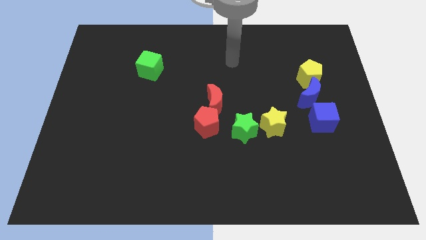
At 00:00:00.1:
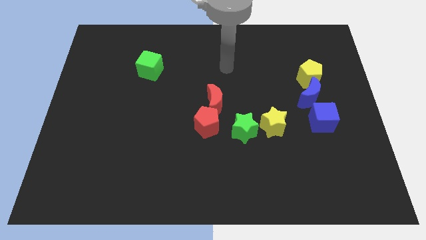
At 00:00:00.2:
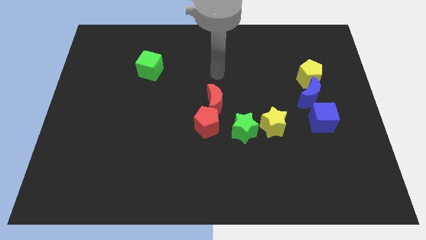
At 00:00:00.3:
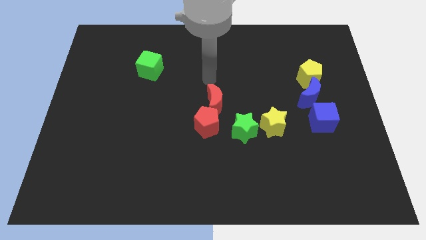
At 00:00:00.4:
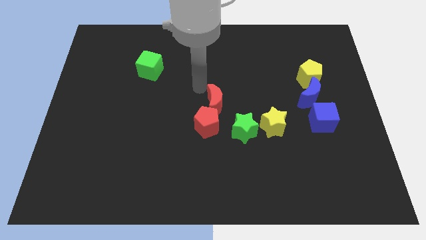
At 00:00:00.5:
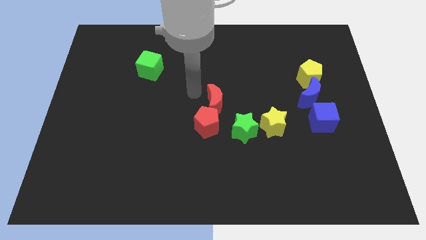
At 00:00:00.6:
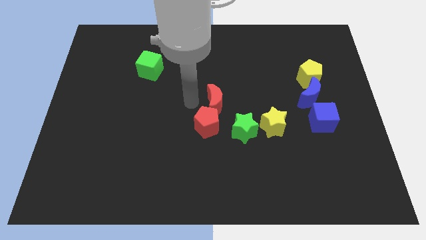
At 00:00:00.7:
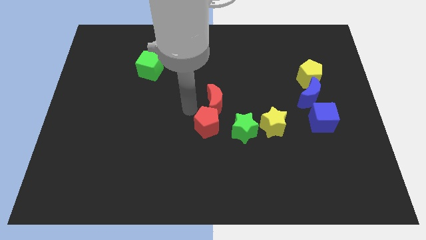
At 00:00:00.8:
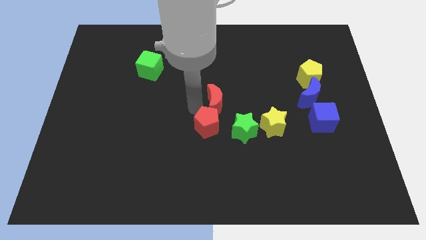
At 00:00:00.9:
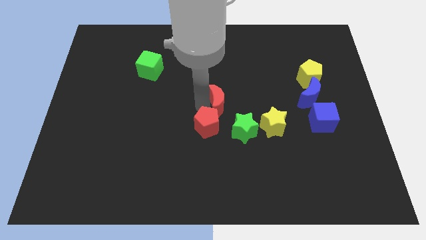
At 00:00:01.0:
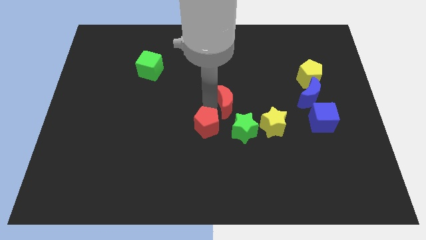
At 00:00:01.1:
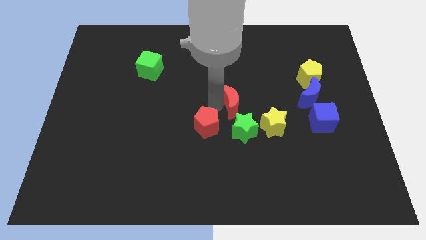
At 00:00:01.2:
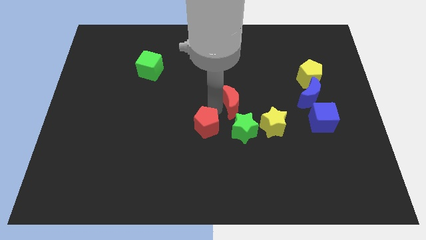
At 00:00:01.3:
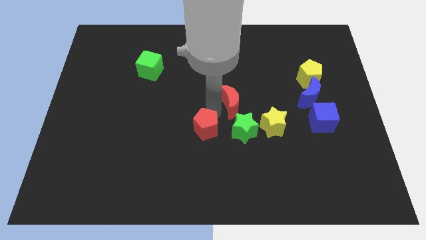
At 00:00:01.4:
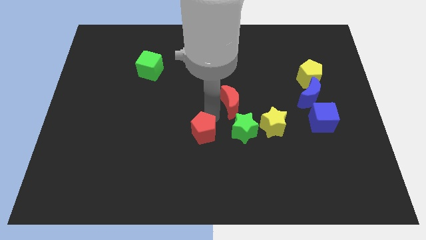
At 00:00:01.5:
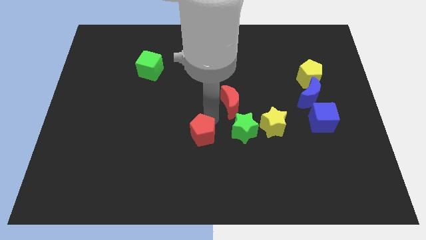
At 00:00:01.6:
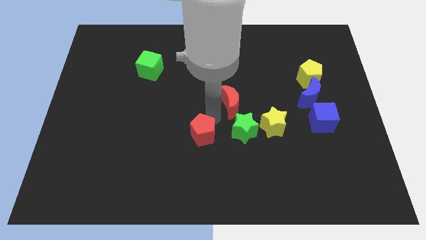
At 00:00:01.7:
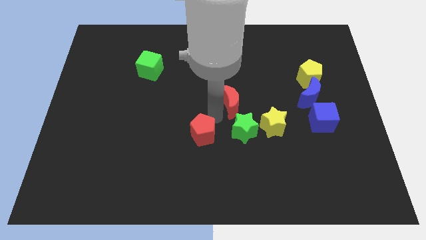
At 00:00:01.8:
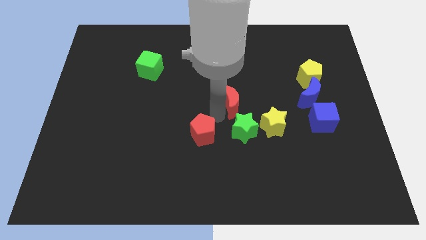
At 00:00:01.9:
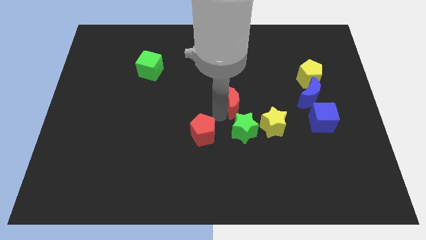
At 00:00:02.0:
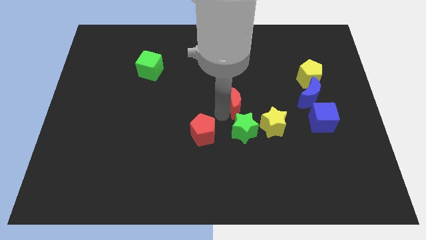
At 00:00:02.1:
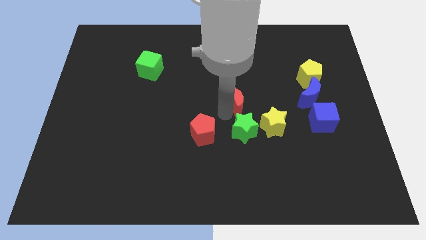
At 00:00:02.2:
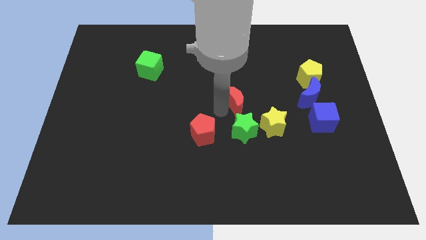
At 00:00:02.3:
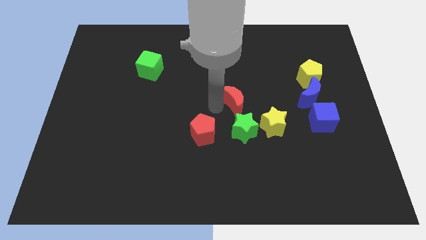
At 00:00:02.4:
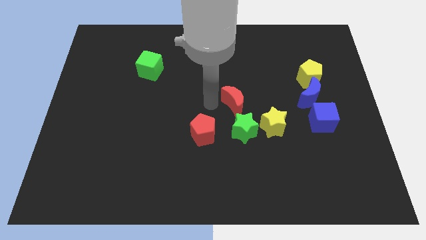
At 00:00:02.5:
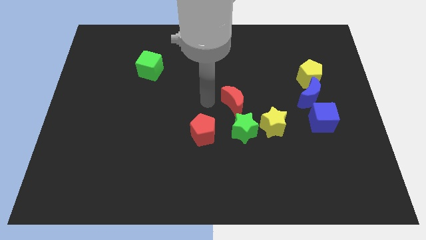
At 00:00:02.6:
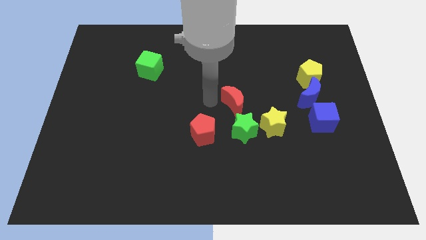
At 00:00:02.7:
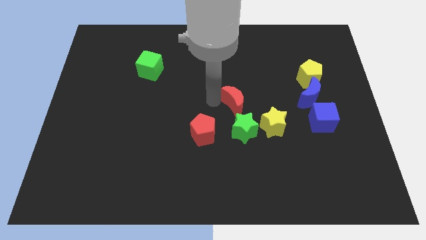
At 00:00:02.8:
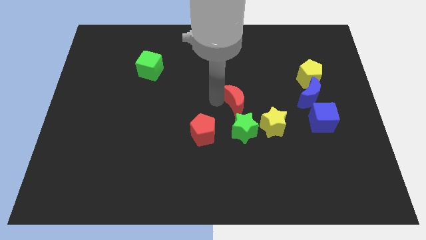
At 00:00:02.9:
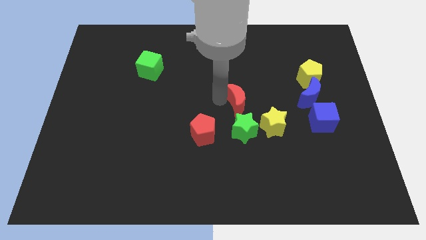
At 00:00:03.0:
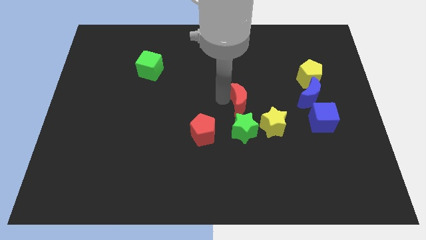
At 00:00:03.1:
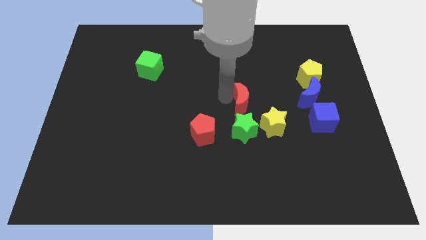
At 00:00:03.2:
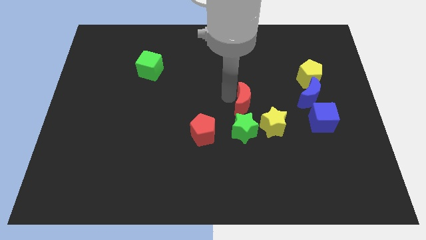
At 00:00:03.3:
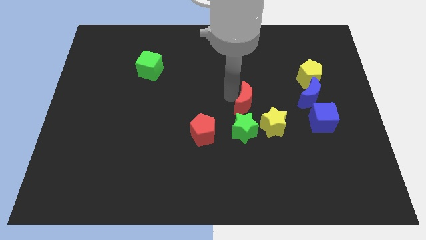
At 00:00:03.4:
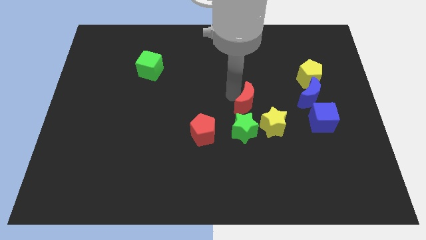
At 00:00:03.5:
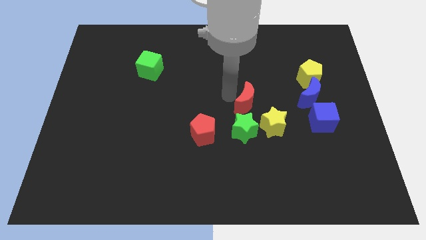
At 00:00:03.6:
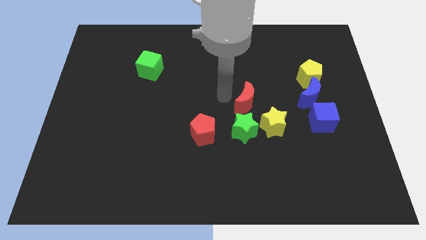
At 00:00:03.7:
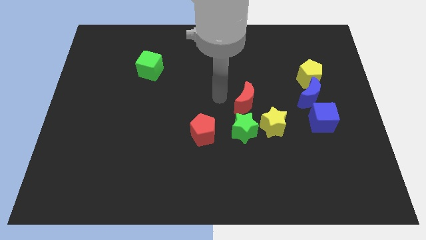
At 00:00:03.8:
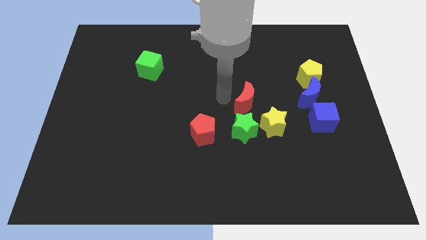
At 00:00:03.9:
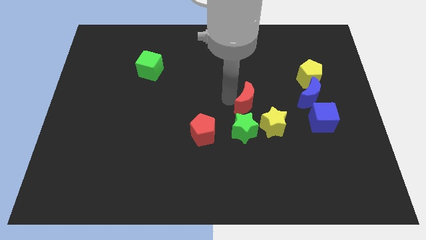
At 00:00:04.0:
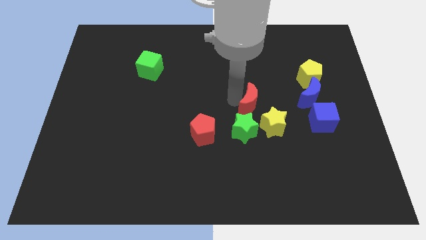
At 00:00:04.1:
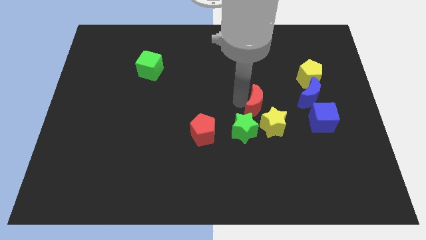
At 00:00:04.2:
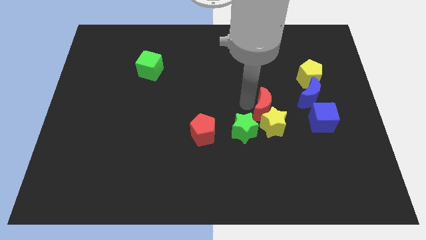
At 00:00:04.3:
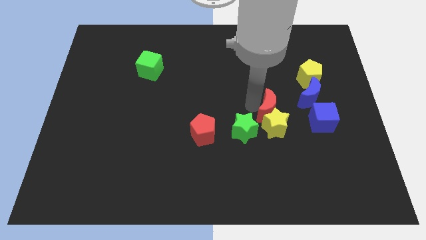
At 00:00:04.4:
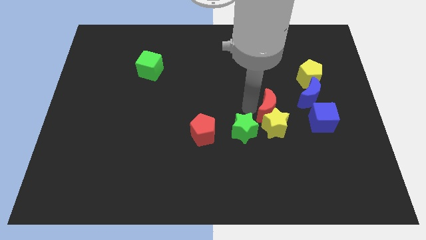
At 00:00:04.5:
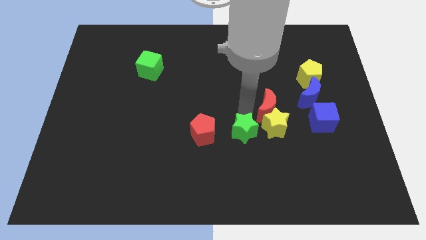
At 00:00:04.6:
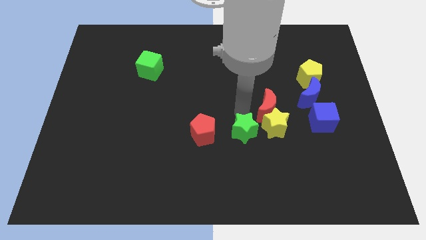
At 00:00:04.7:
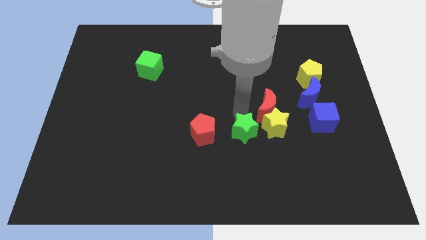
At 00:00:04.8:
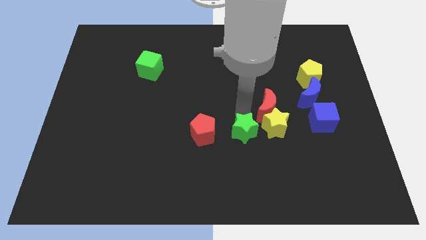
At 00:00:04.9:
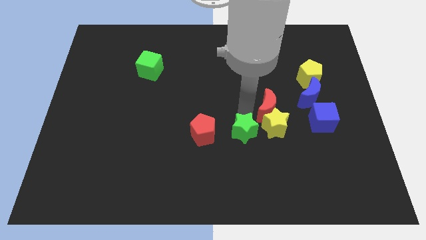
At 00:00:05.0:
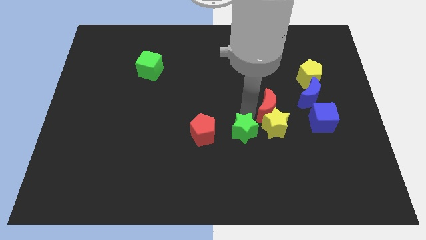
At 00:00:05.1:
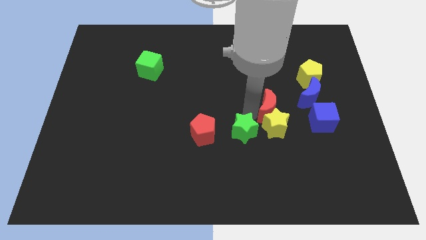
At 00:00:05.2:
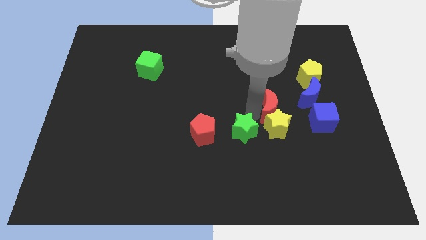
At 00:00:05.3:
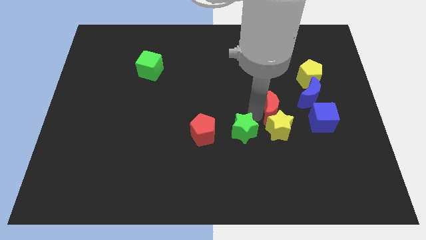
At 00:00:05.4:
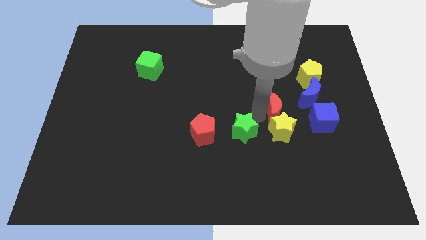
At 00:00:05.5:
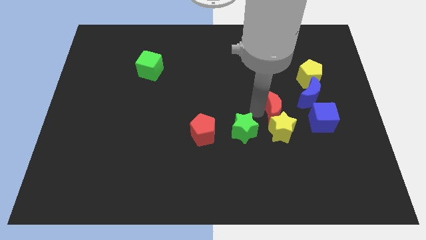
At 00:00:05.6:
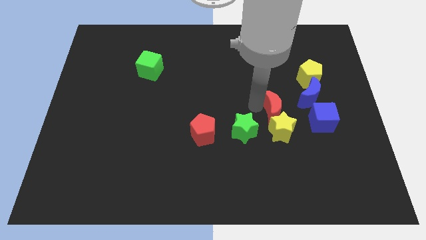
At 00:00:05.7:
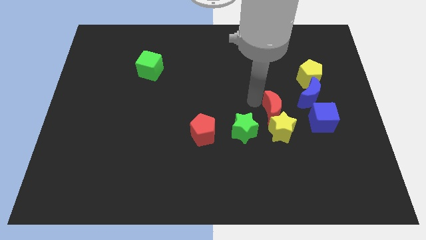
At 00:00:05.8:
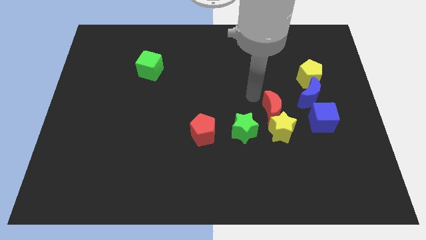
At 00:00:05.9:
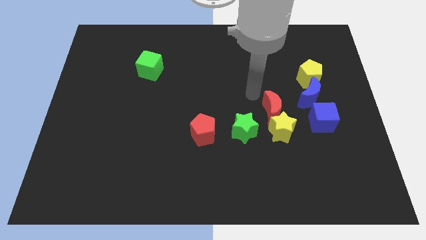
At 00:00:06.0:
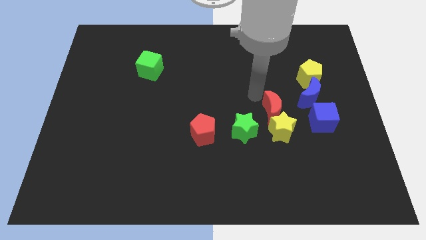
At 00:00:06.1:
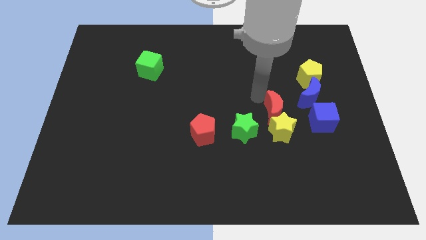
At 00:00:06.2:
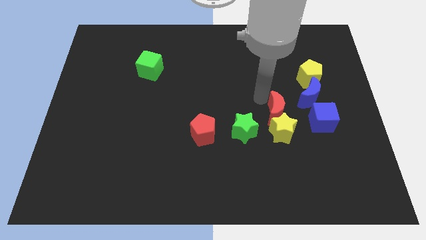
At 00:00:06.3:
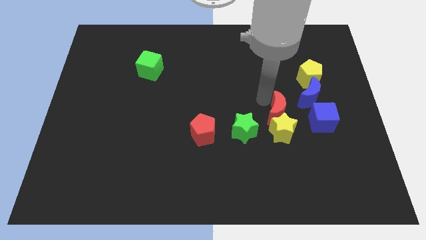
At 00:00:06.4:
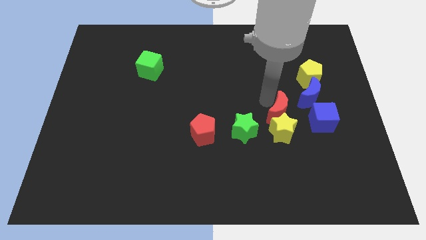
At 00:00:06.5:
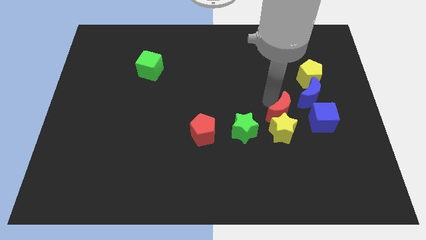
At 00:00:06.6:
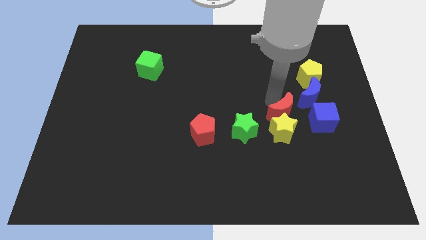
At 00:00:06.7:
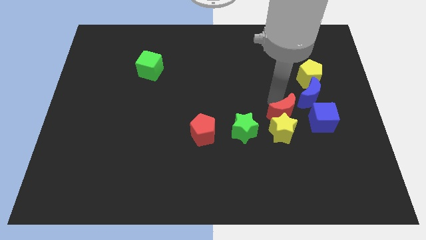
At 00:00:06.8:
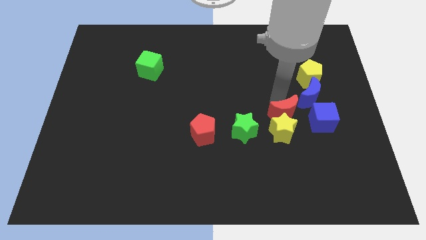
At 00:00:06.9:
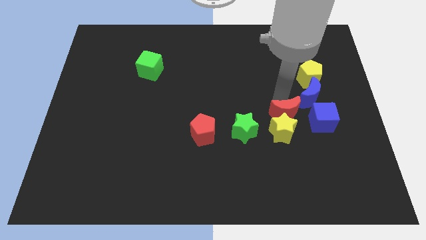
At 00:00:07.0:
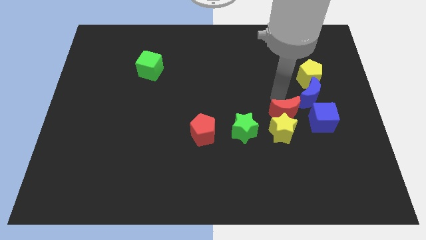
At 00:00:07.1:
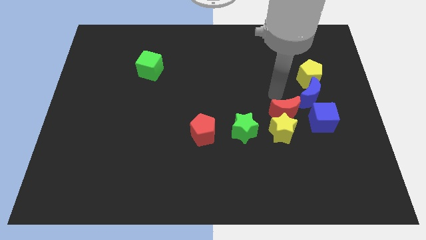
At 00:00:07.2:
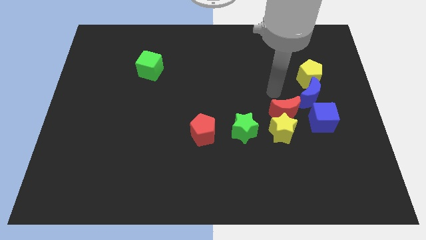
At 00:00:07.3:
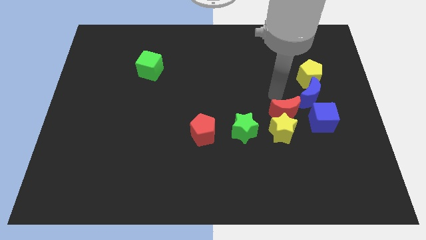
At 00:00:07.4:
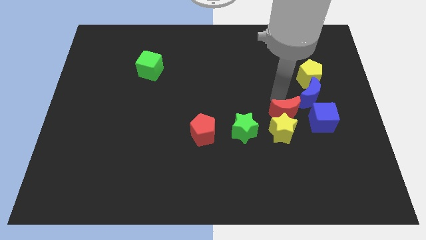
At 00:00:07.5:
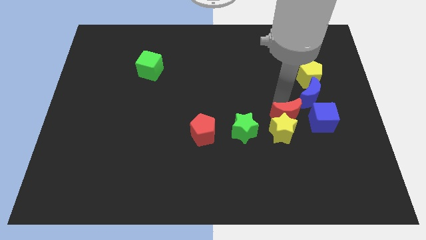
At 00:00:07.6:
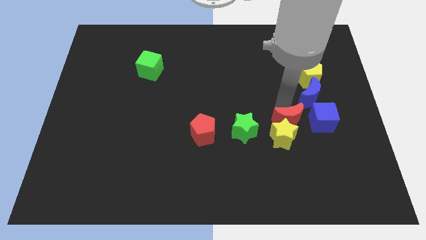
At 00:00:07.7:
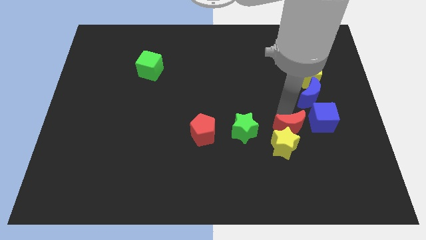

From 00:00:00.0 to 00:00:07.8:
put the red moon diagonally down and to the left of the blue cube
